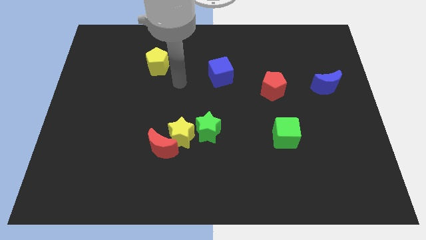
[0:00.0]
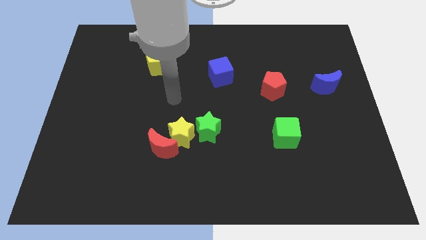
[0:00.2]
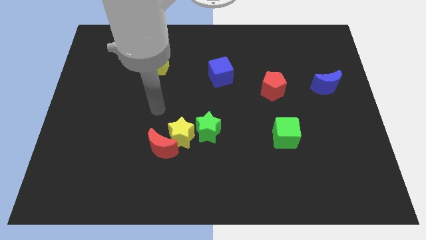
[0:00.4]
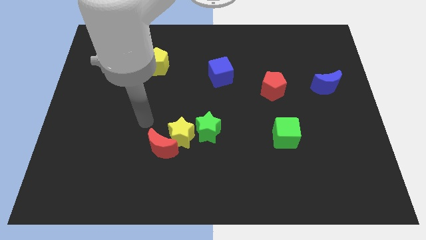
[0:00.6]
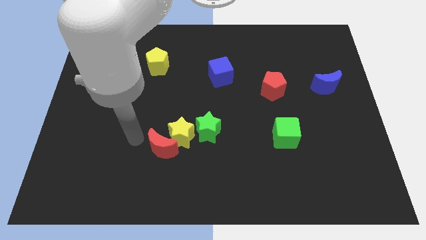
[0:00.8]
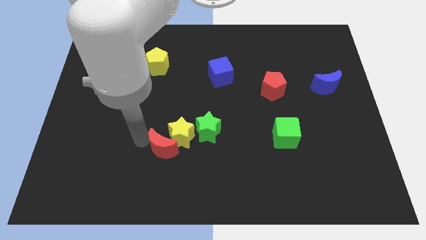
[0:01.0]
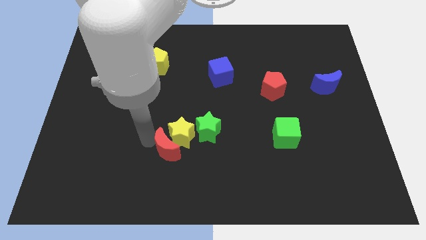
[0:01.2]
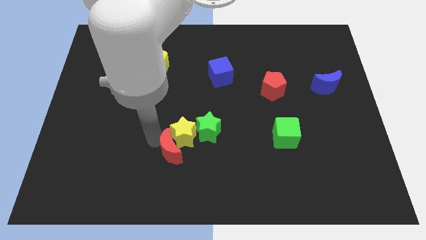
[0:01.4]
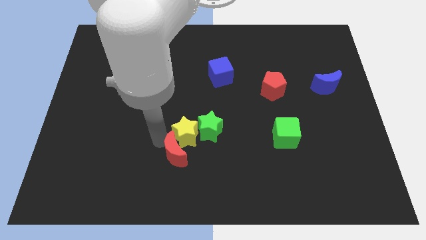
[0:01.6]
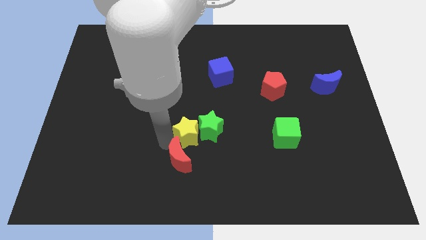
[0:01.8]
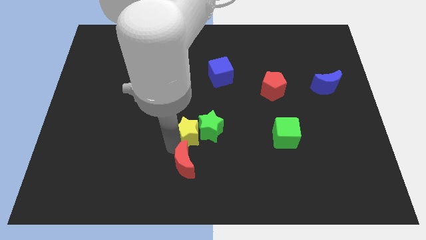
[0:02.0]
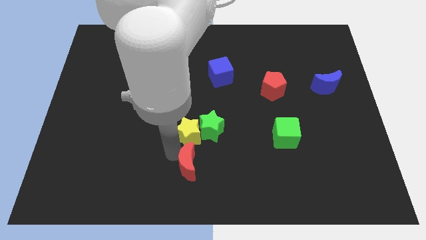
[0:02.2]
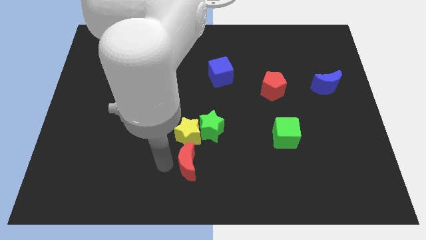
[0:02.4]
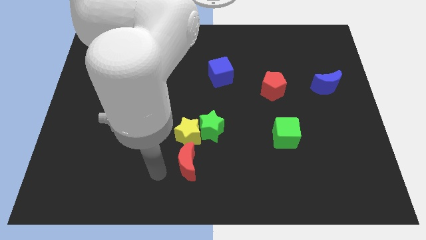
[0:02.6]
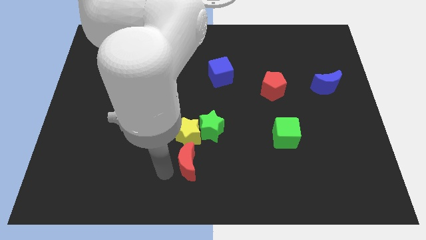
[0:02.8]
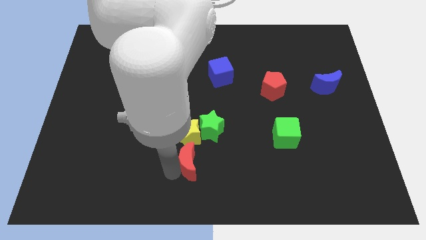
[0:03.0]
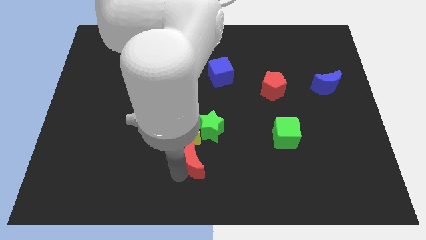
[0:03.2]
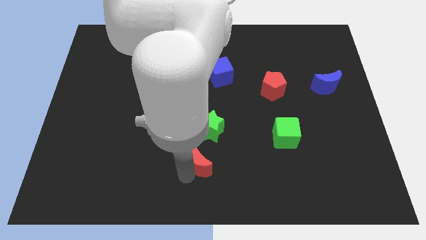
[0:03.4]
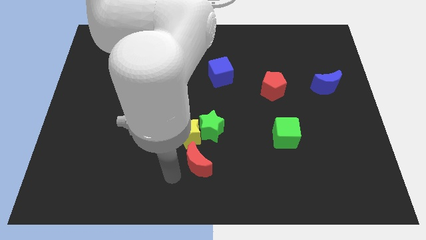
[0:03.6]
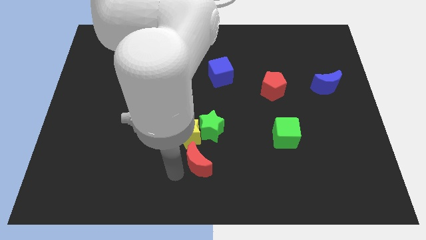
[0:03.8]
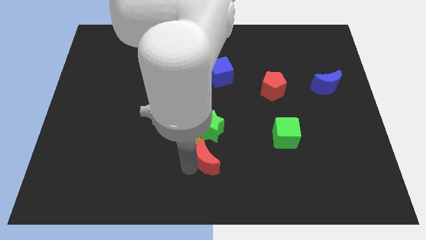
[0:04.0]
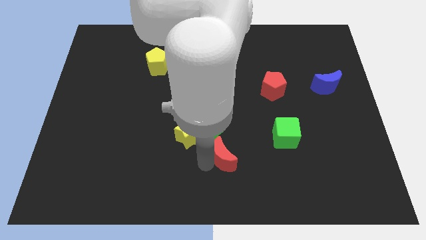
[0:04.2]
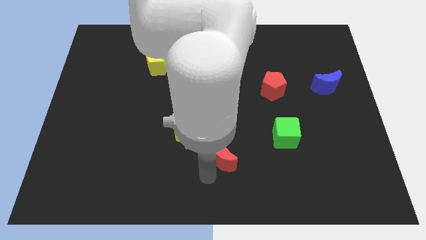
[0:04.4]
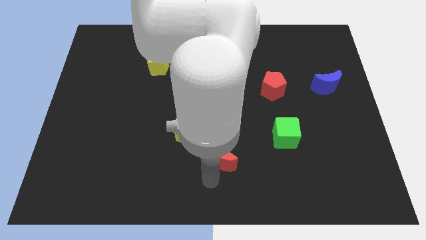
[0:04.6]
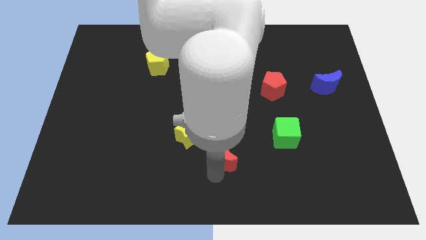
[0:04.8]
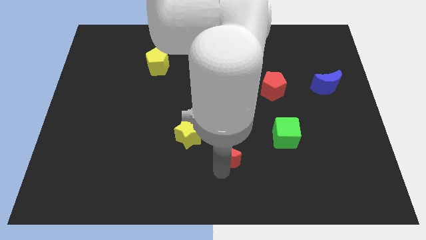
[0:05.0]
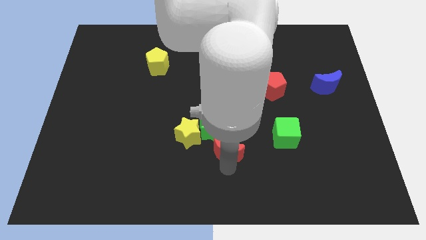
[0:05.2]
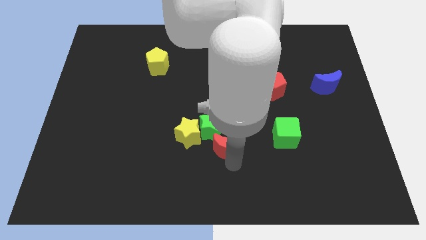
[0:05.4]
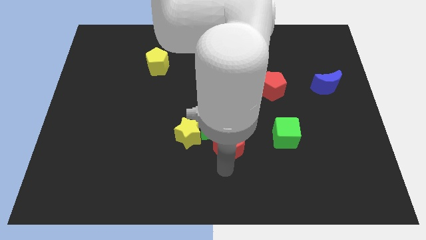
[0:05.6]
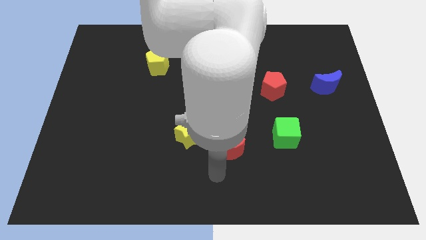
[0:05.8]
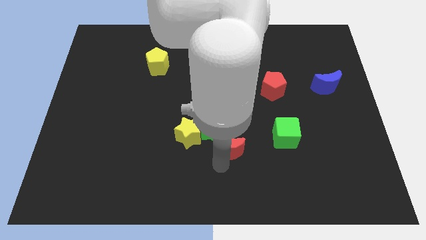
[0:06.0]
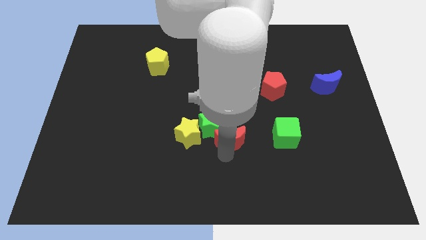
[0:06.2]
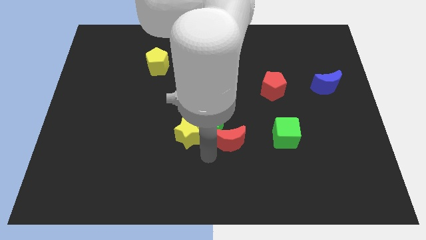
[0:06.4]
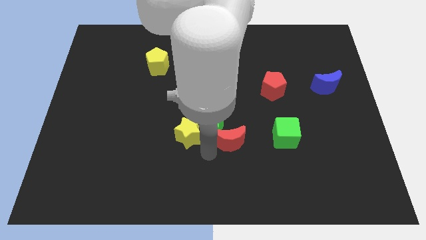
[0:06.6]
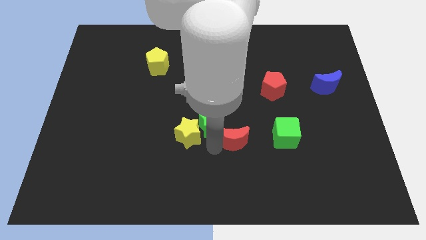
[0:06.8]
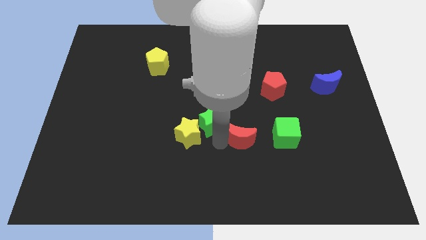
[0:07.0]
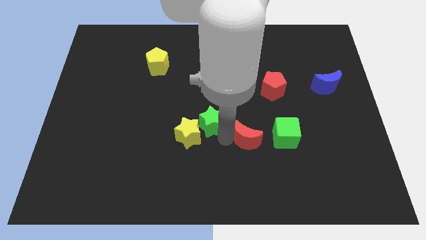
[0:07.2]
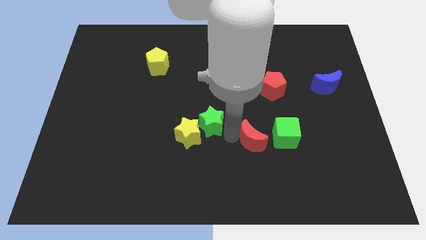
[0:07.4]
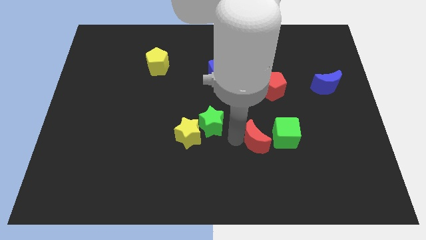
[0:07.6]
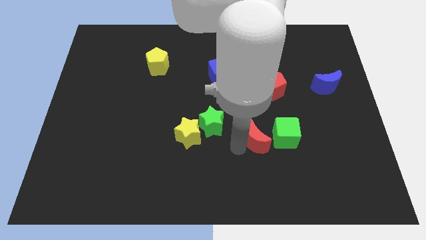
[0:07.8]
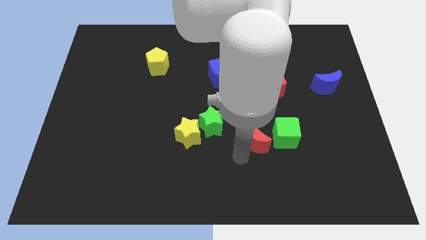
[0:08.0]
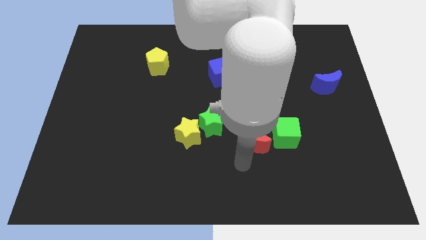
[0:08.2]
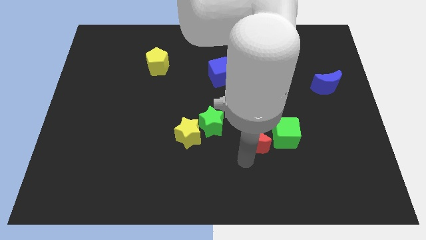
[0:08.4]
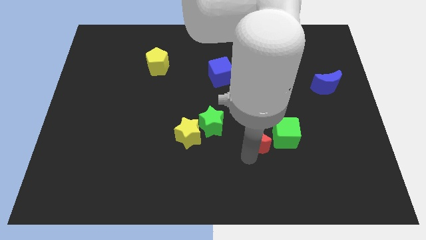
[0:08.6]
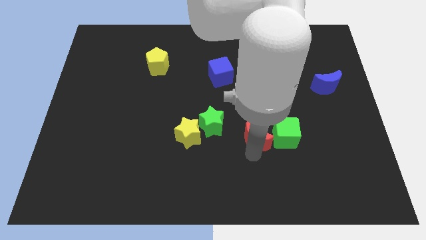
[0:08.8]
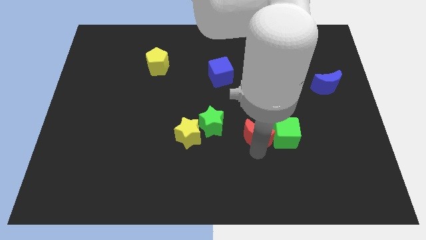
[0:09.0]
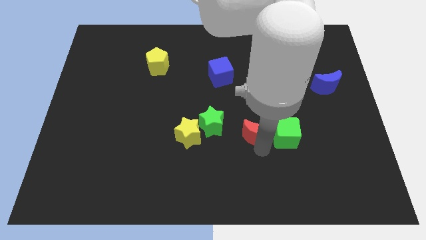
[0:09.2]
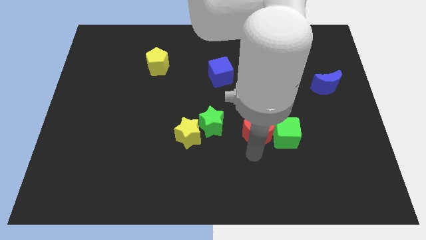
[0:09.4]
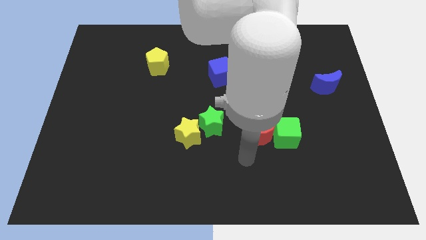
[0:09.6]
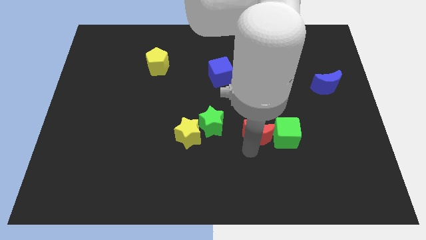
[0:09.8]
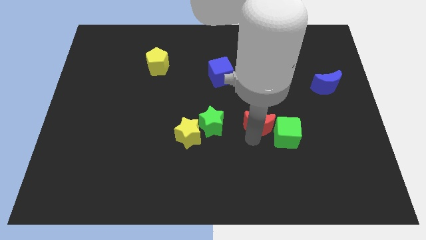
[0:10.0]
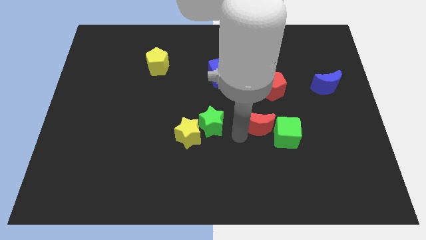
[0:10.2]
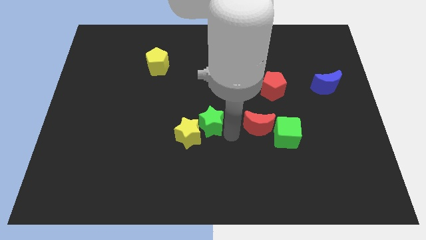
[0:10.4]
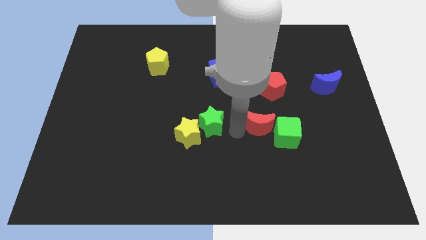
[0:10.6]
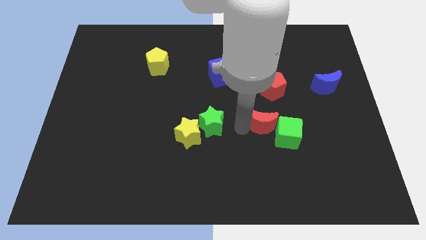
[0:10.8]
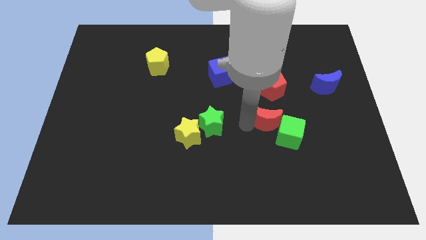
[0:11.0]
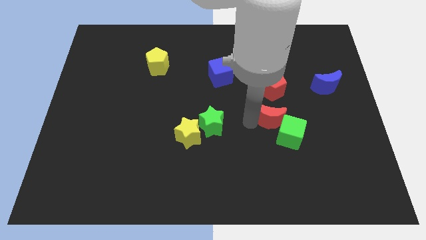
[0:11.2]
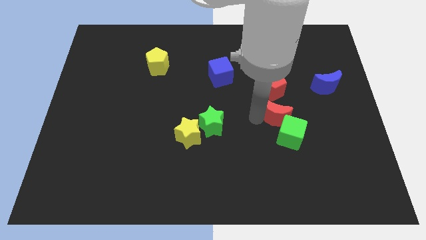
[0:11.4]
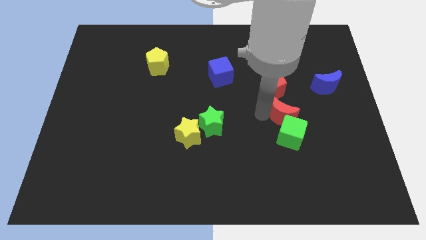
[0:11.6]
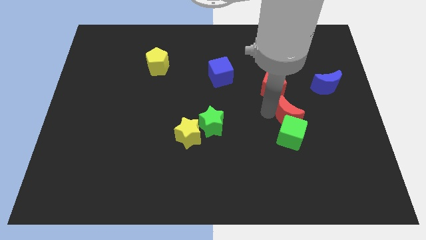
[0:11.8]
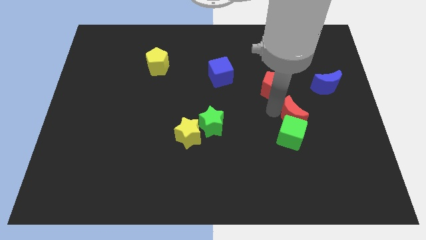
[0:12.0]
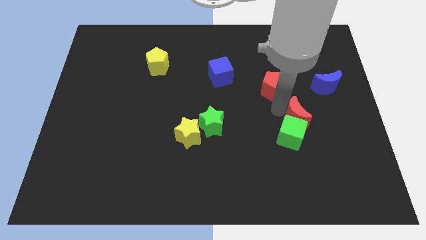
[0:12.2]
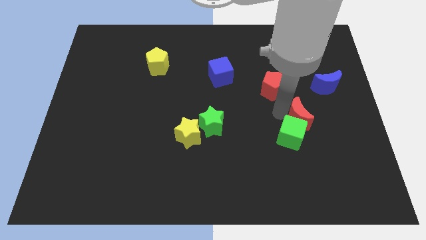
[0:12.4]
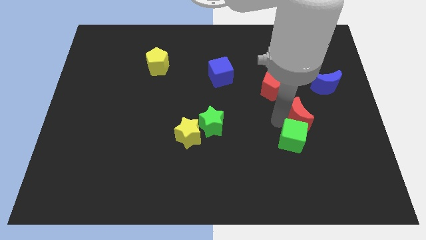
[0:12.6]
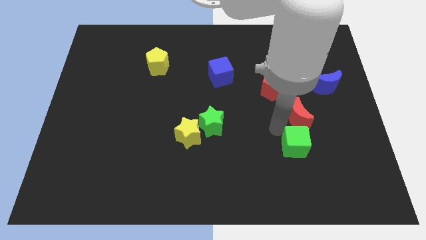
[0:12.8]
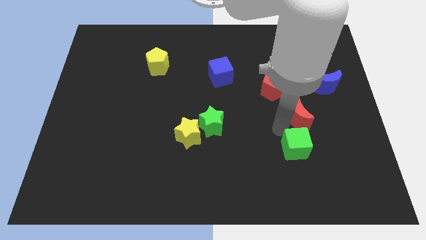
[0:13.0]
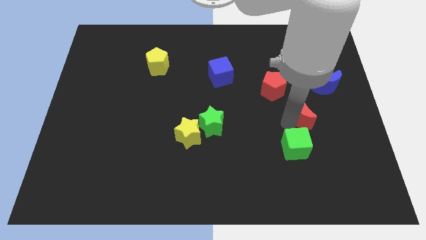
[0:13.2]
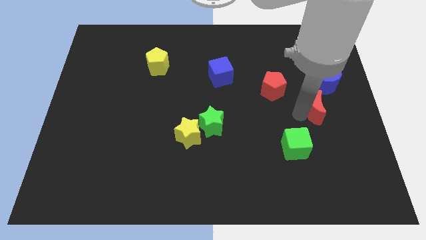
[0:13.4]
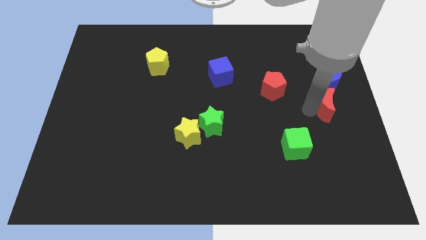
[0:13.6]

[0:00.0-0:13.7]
push the red moon to the right side

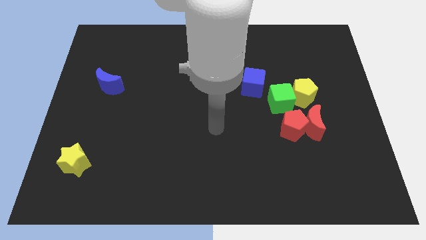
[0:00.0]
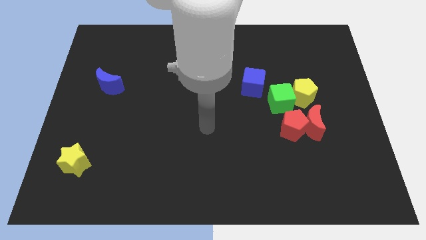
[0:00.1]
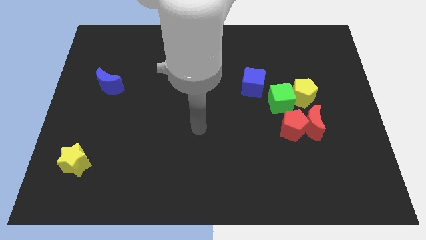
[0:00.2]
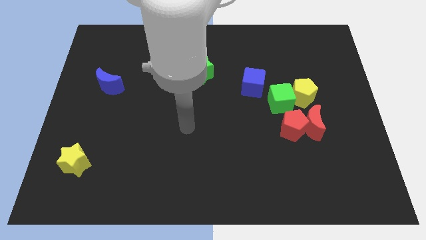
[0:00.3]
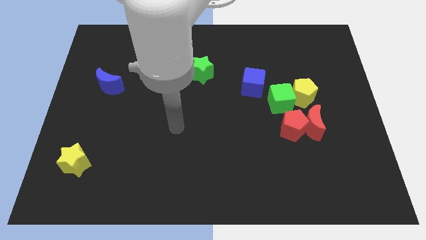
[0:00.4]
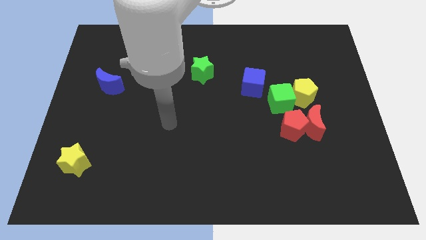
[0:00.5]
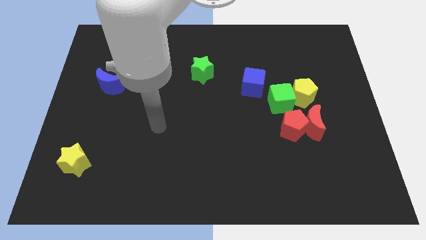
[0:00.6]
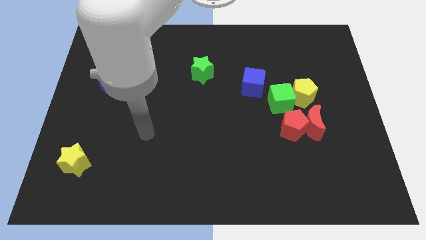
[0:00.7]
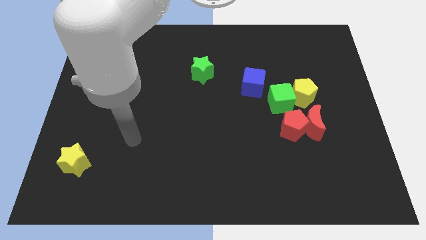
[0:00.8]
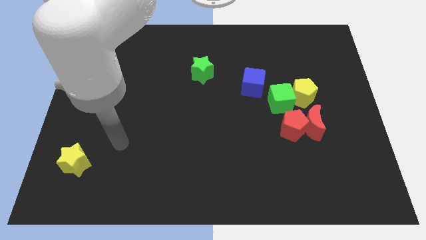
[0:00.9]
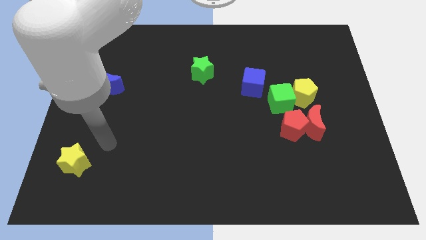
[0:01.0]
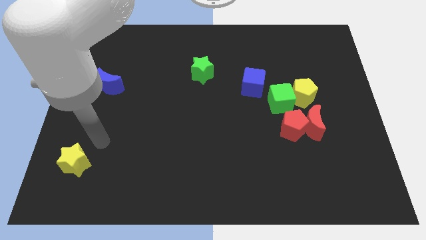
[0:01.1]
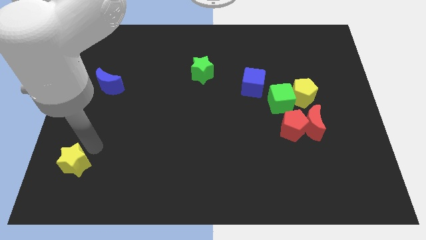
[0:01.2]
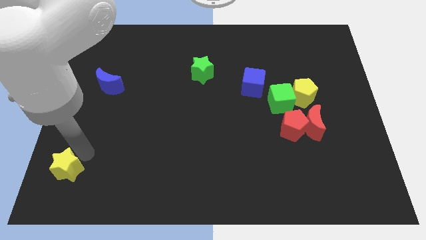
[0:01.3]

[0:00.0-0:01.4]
slide the yellow star to the bottom left
